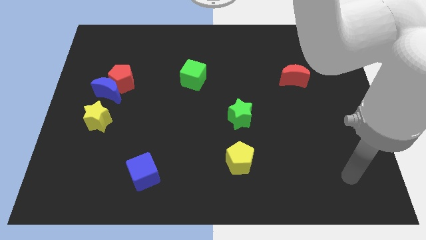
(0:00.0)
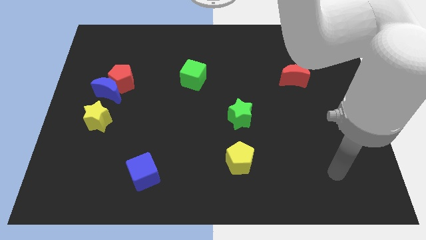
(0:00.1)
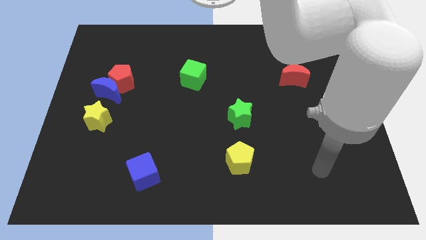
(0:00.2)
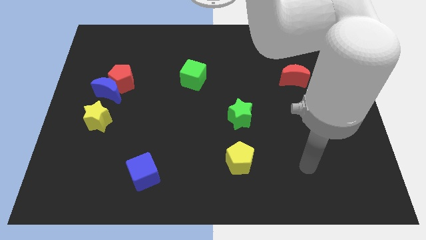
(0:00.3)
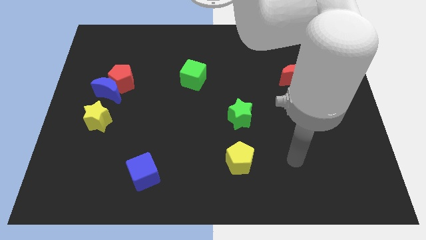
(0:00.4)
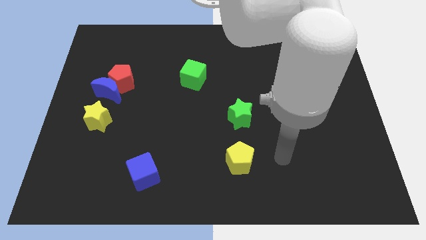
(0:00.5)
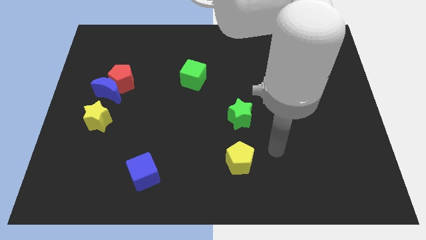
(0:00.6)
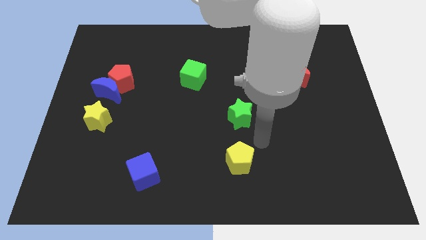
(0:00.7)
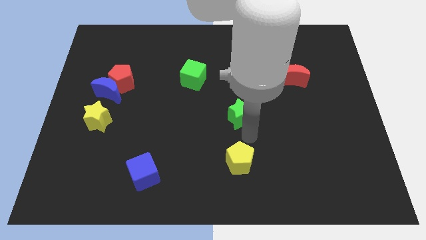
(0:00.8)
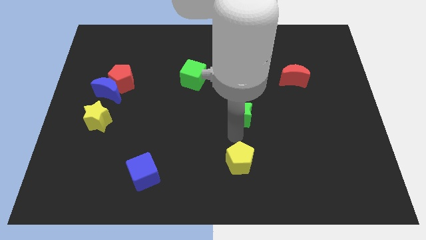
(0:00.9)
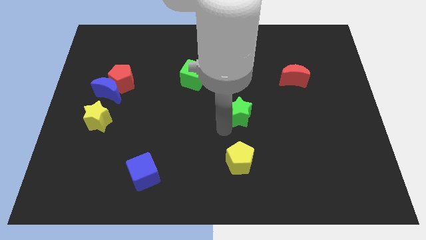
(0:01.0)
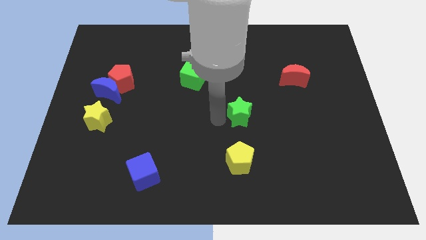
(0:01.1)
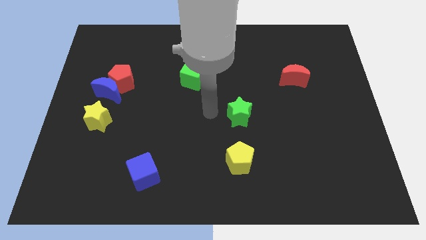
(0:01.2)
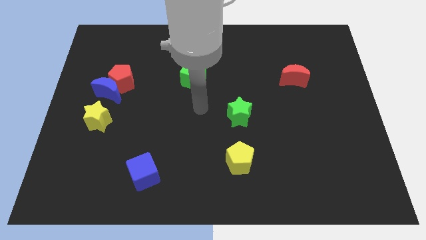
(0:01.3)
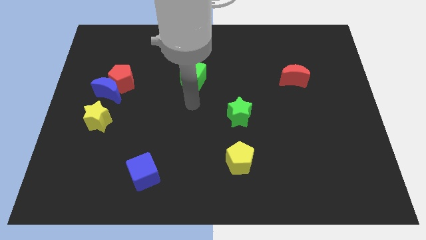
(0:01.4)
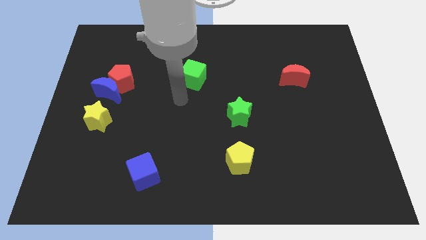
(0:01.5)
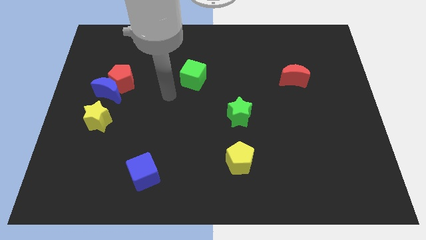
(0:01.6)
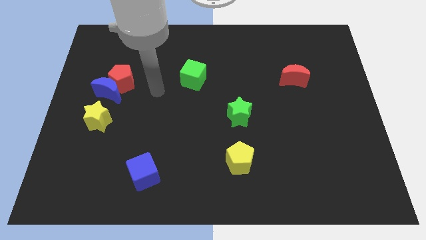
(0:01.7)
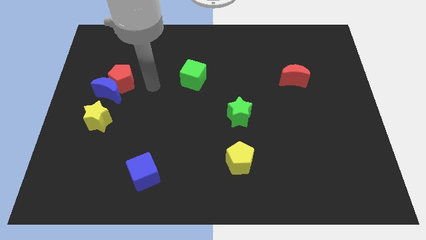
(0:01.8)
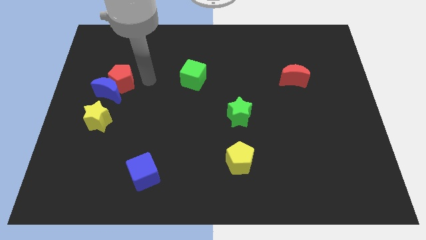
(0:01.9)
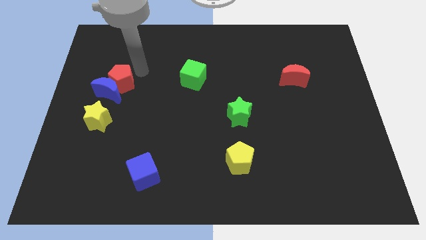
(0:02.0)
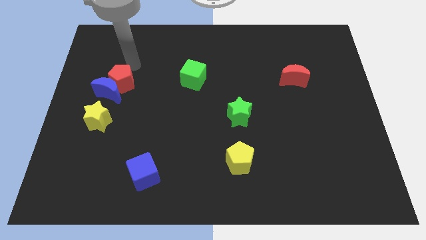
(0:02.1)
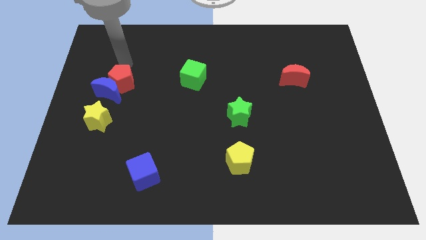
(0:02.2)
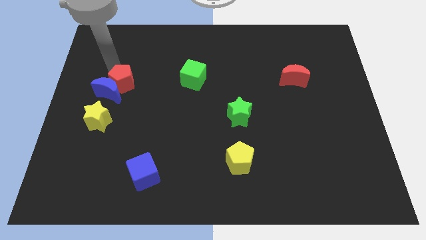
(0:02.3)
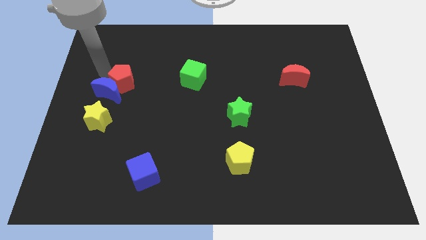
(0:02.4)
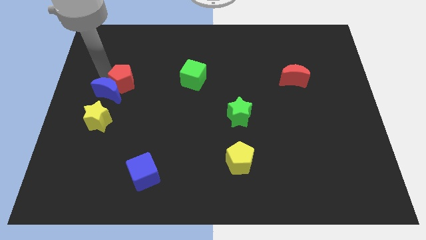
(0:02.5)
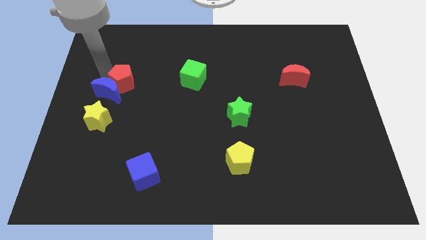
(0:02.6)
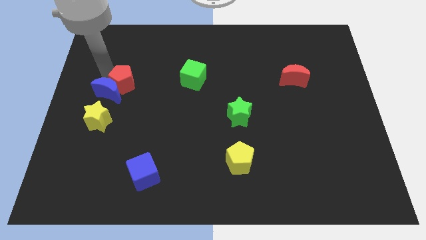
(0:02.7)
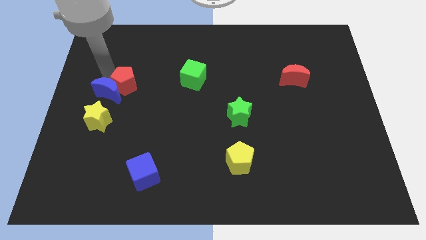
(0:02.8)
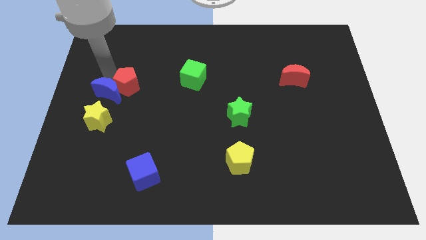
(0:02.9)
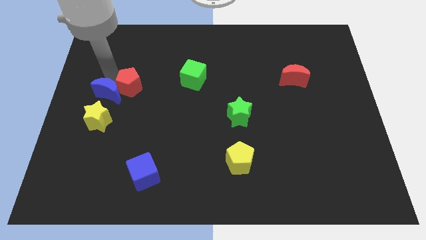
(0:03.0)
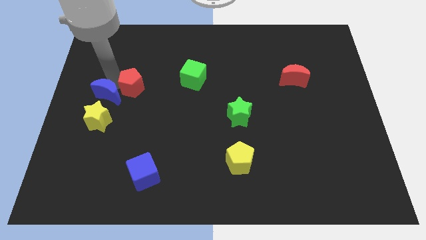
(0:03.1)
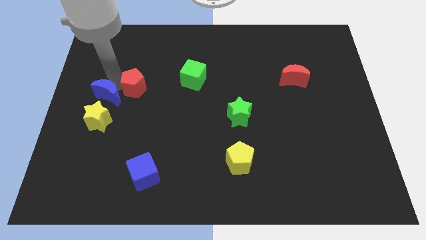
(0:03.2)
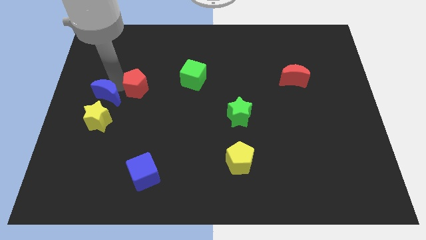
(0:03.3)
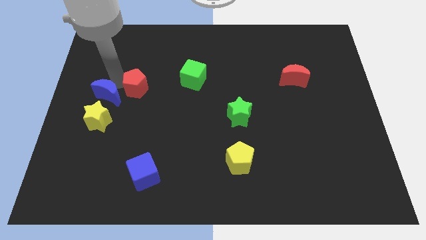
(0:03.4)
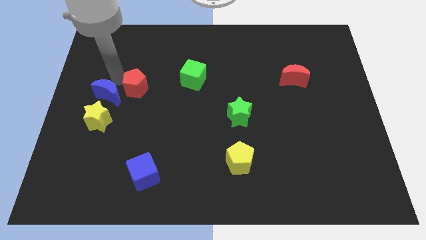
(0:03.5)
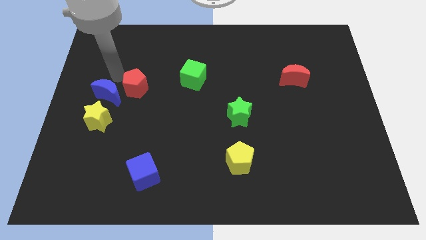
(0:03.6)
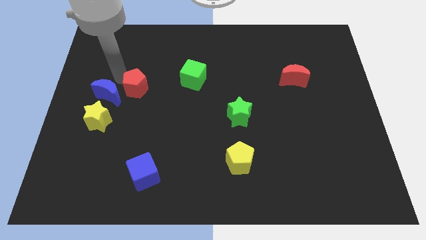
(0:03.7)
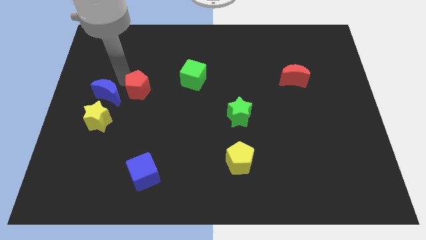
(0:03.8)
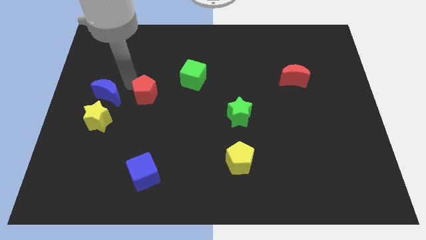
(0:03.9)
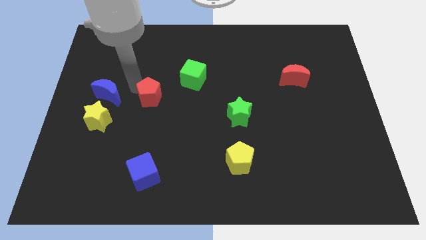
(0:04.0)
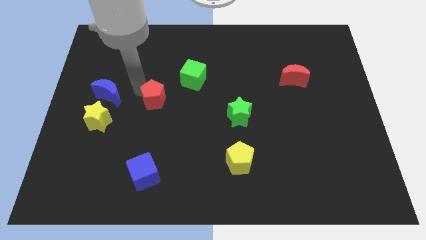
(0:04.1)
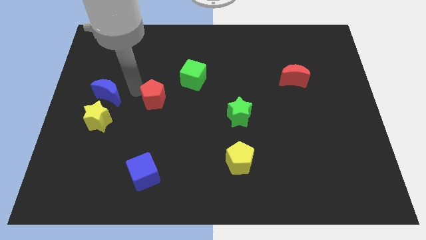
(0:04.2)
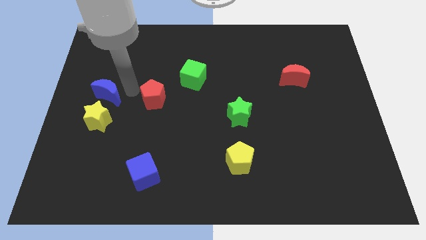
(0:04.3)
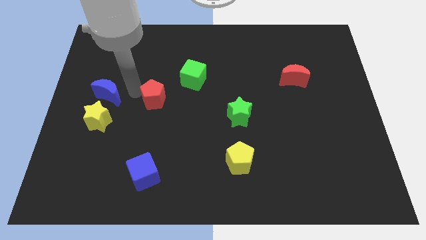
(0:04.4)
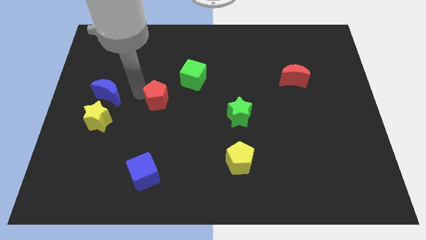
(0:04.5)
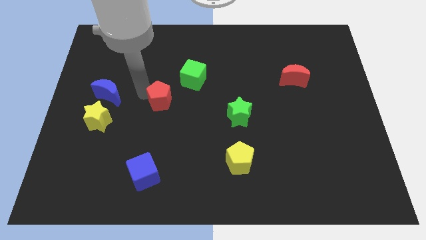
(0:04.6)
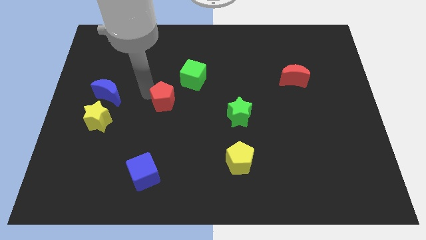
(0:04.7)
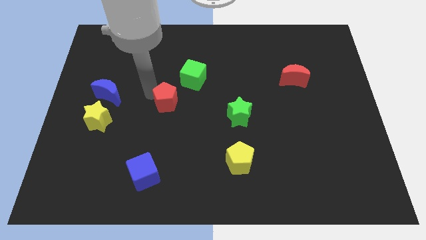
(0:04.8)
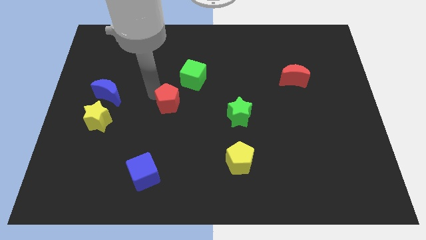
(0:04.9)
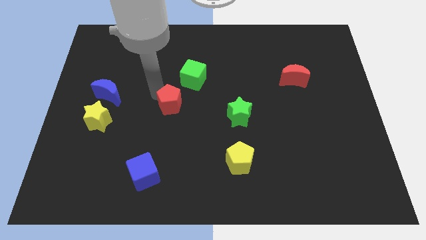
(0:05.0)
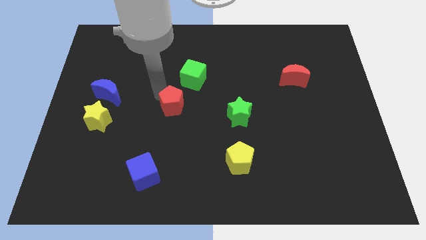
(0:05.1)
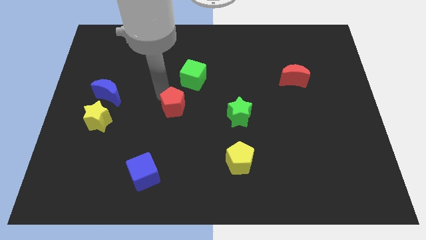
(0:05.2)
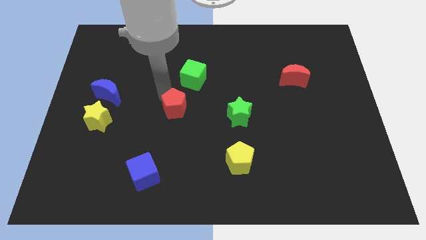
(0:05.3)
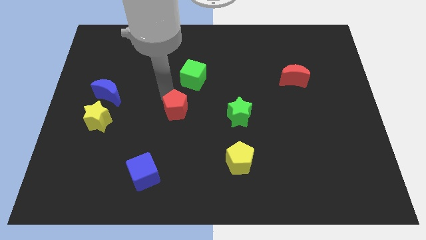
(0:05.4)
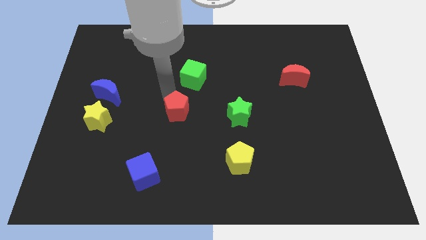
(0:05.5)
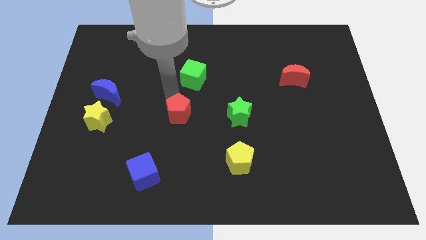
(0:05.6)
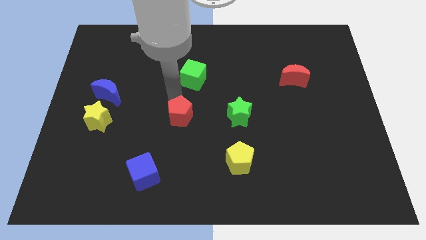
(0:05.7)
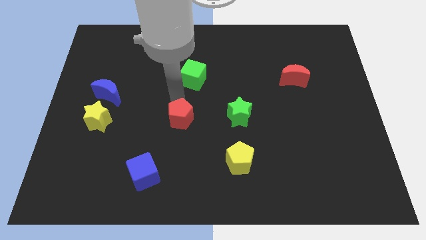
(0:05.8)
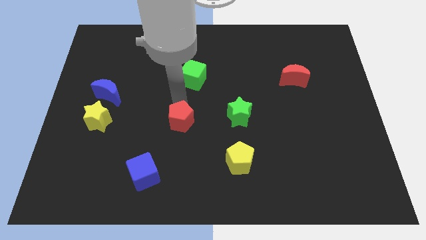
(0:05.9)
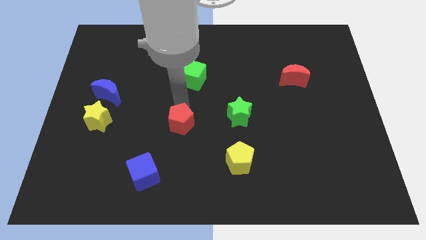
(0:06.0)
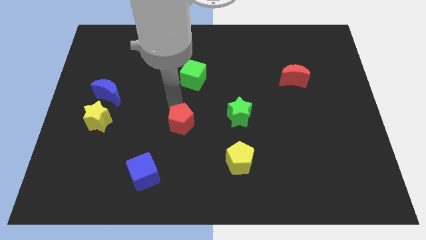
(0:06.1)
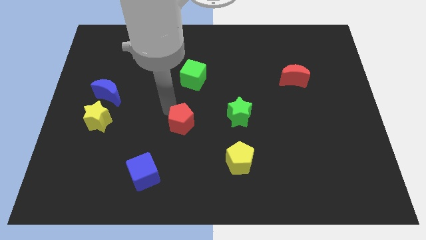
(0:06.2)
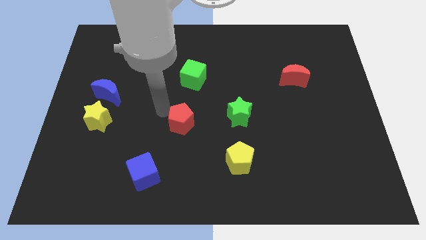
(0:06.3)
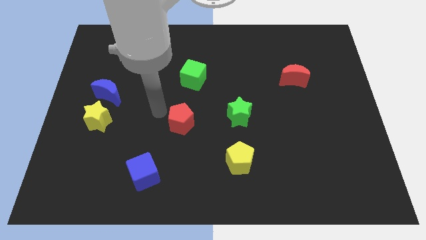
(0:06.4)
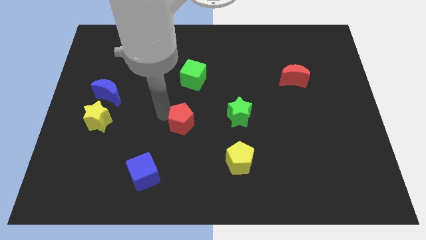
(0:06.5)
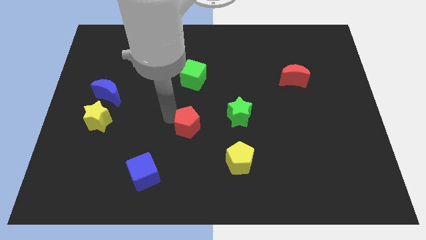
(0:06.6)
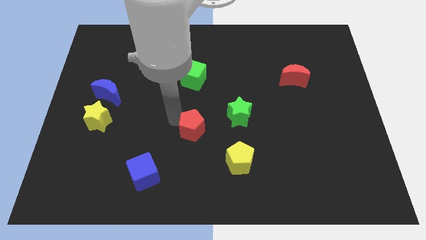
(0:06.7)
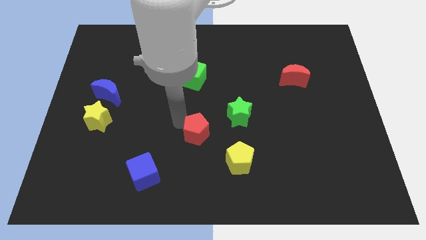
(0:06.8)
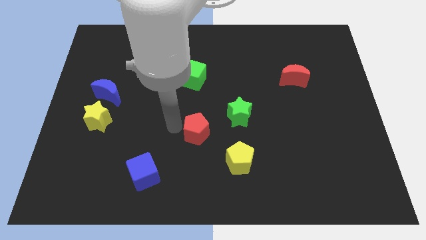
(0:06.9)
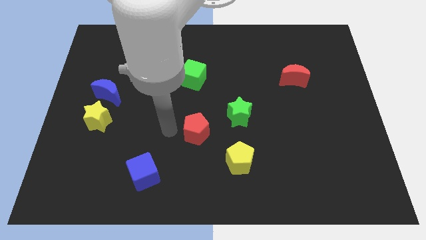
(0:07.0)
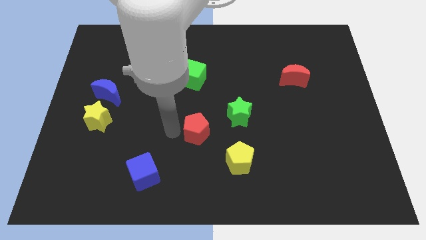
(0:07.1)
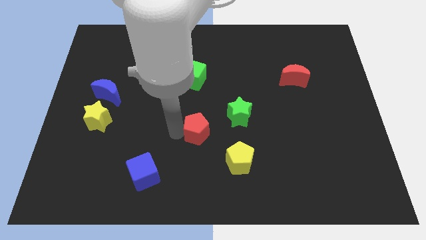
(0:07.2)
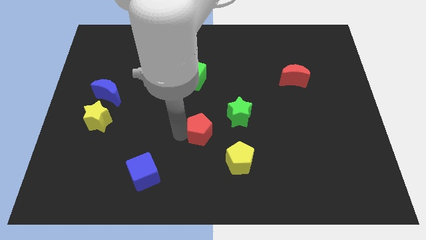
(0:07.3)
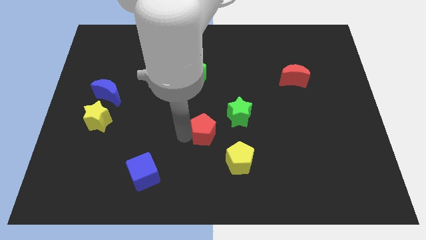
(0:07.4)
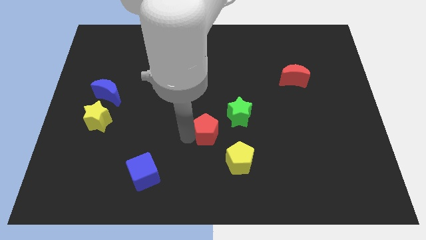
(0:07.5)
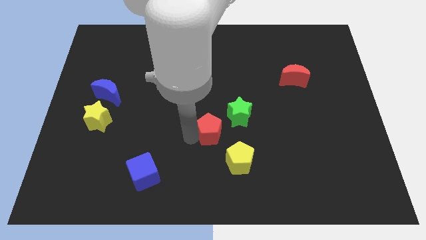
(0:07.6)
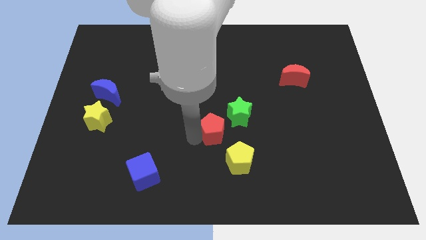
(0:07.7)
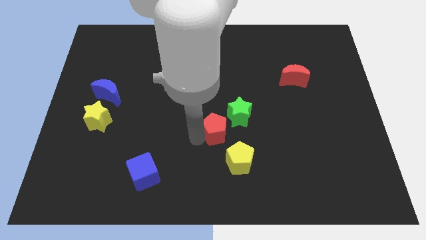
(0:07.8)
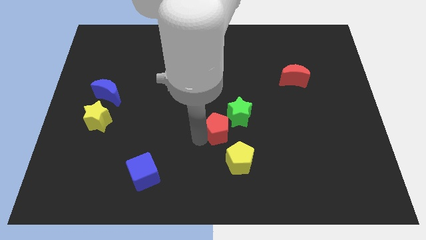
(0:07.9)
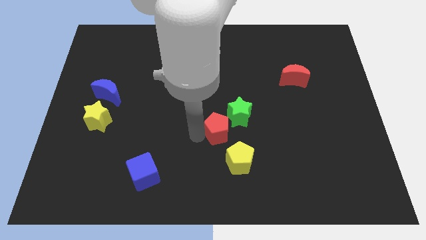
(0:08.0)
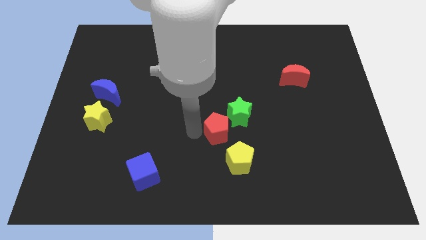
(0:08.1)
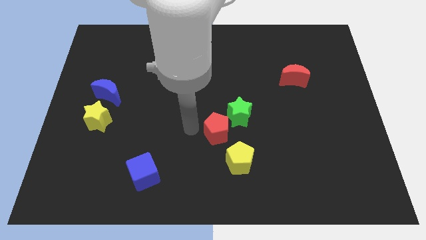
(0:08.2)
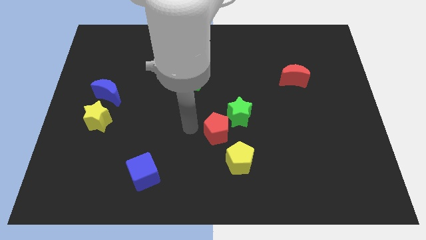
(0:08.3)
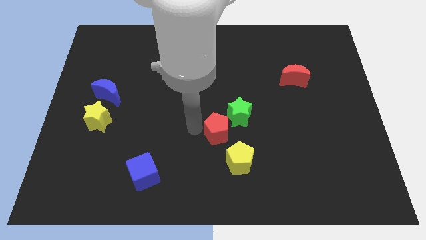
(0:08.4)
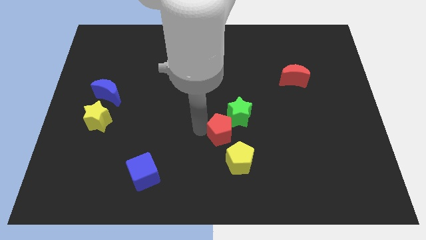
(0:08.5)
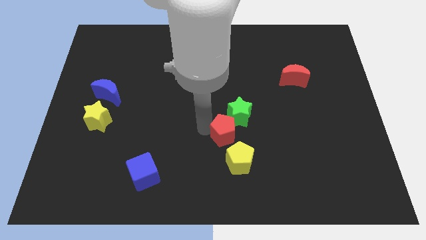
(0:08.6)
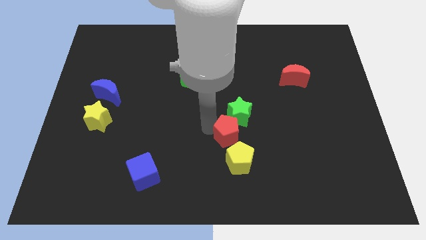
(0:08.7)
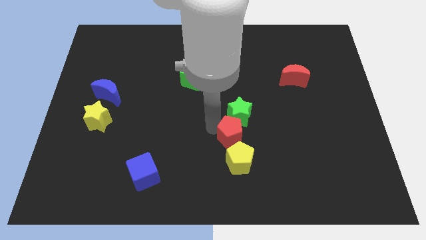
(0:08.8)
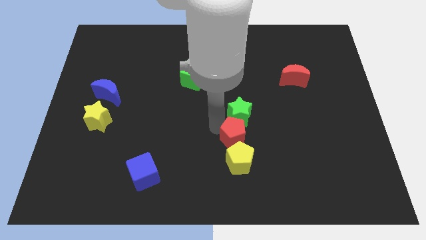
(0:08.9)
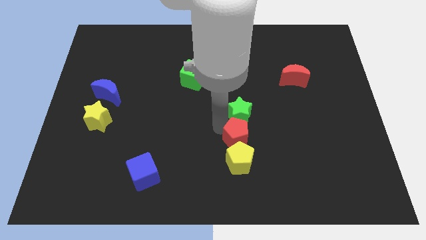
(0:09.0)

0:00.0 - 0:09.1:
push the red pentagon to the top right of the yellow pentagon
